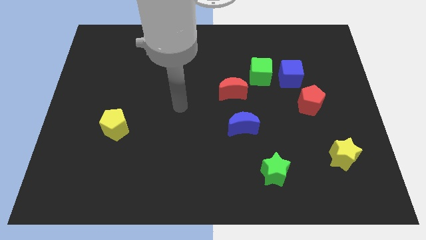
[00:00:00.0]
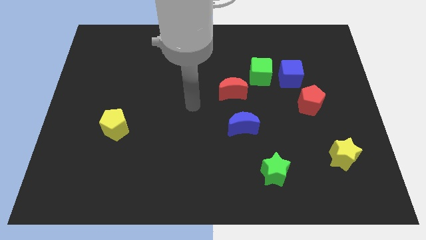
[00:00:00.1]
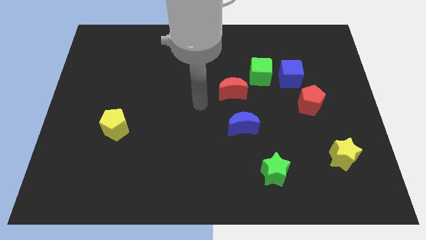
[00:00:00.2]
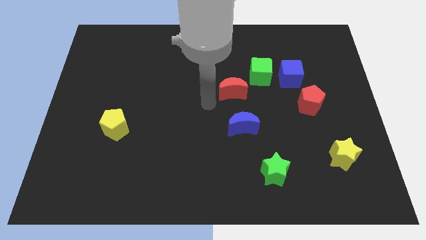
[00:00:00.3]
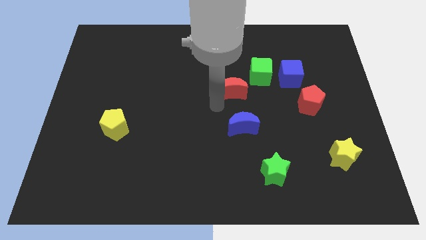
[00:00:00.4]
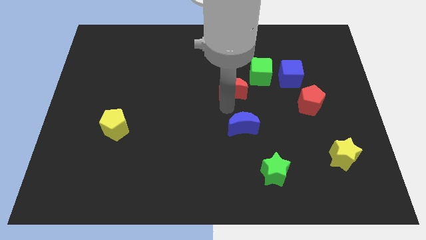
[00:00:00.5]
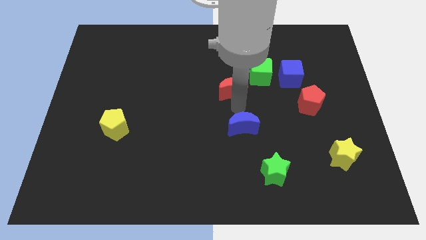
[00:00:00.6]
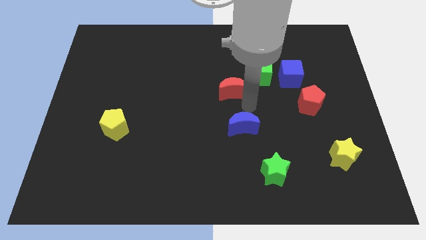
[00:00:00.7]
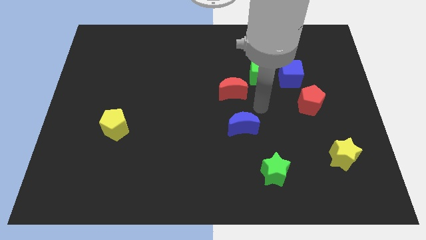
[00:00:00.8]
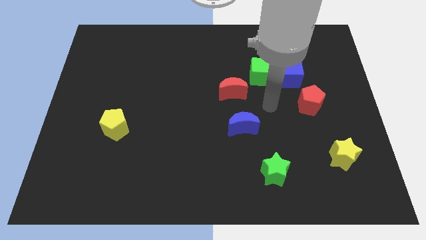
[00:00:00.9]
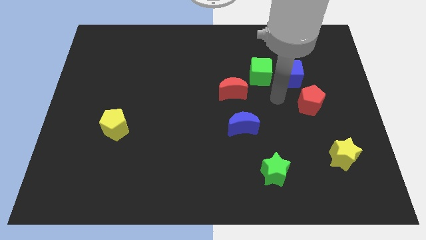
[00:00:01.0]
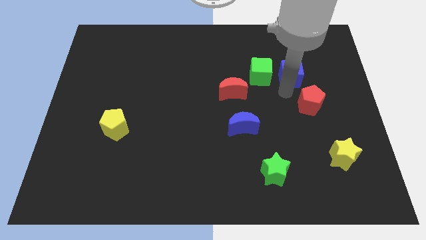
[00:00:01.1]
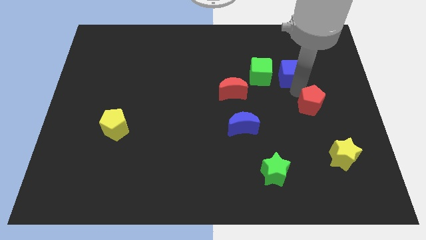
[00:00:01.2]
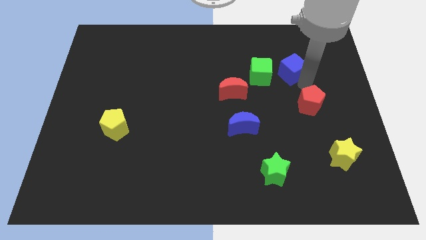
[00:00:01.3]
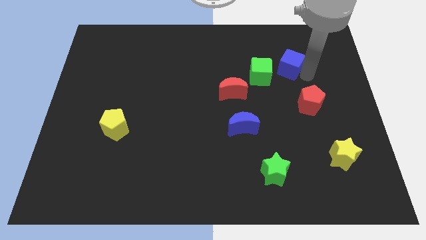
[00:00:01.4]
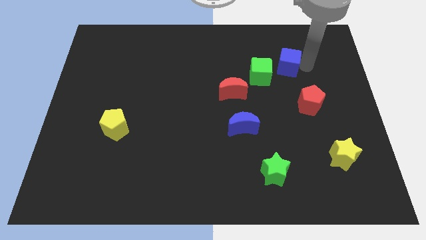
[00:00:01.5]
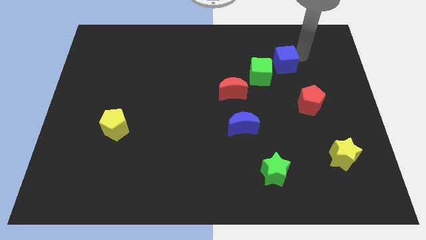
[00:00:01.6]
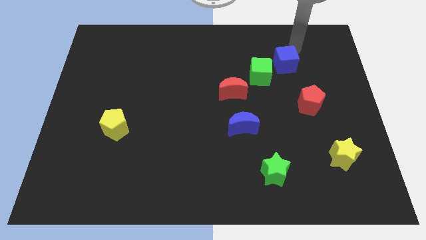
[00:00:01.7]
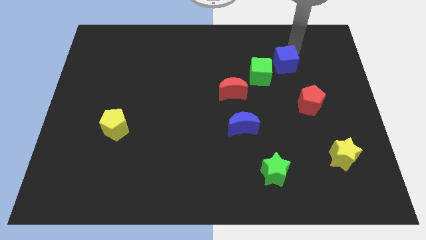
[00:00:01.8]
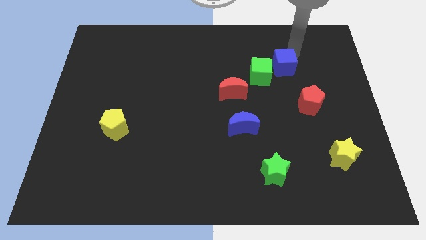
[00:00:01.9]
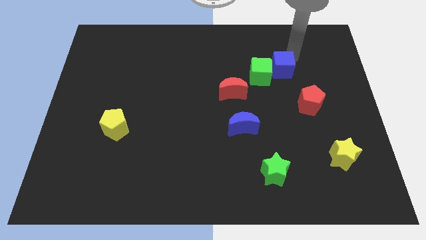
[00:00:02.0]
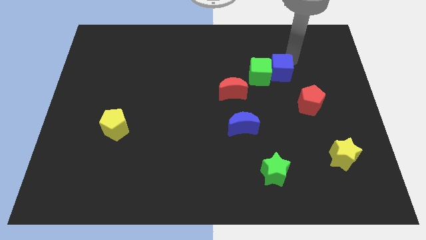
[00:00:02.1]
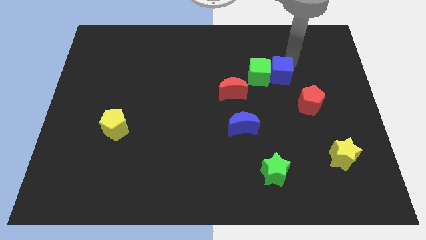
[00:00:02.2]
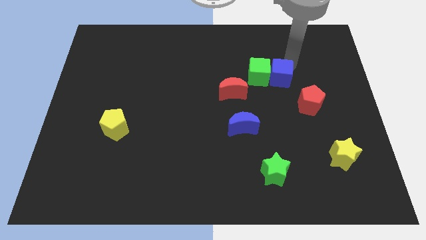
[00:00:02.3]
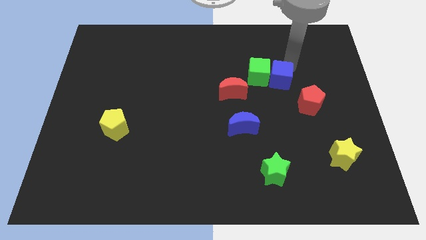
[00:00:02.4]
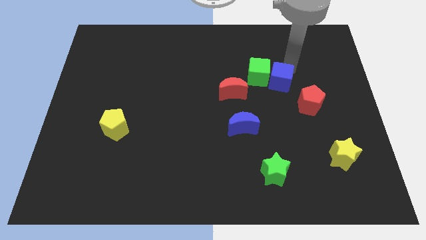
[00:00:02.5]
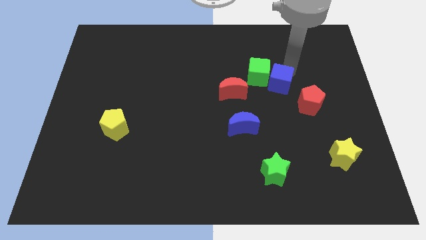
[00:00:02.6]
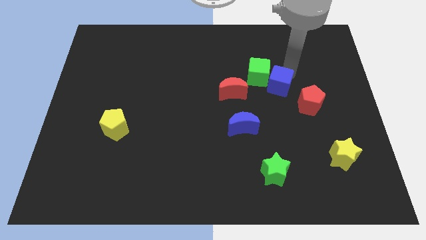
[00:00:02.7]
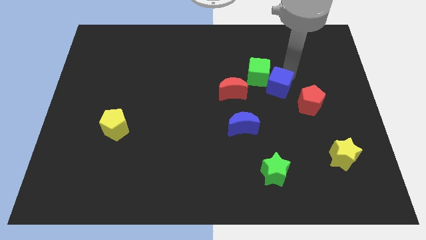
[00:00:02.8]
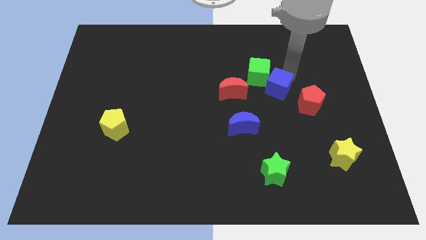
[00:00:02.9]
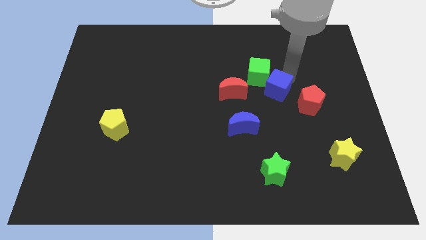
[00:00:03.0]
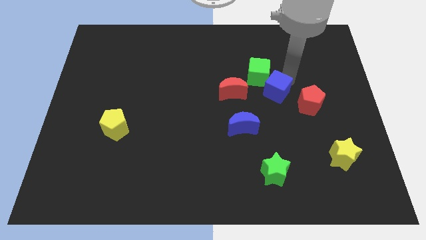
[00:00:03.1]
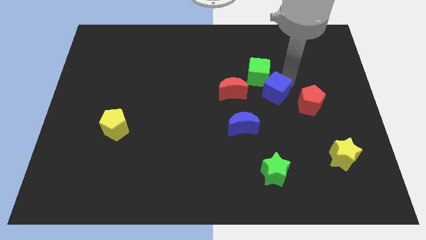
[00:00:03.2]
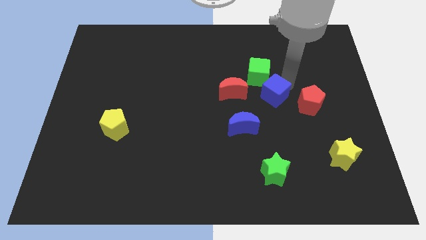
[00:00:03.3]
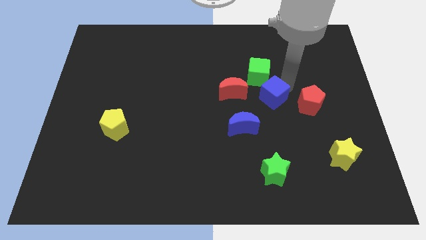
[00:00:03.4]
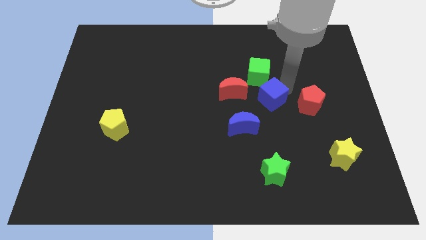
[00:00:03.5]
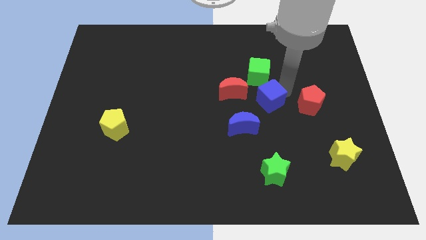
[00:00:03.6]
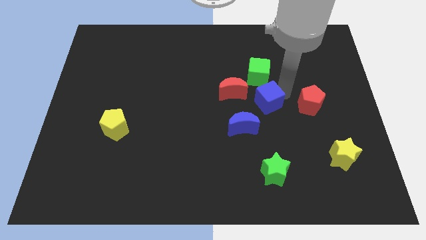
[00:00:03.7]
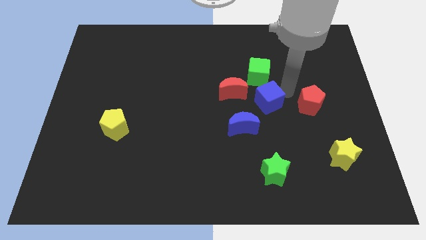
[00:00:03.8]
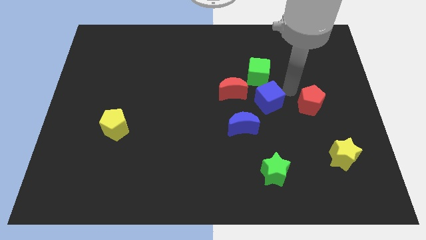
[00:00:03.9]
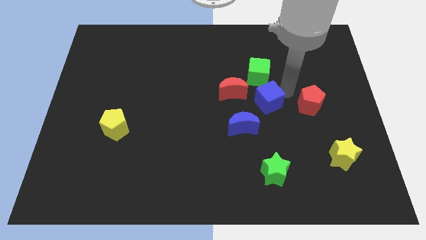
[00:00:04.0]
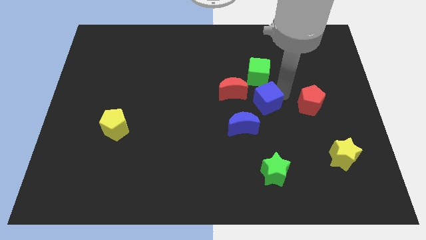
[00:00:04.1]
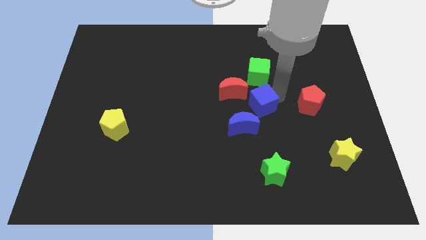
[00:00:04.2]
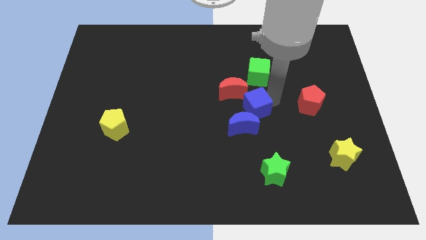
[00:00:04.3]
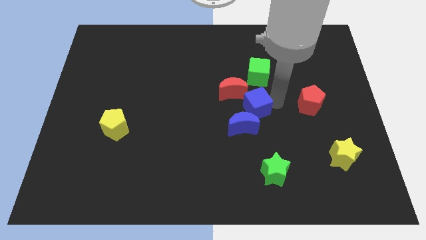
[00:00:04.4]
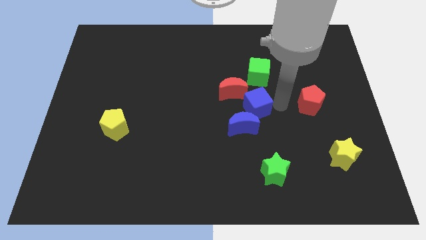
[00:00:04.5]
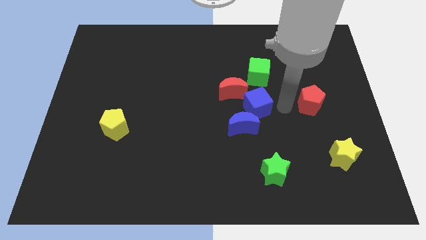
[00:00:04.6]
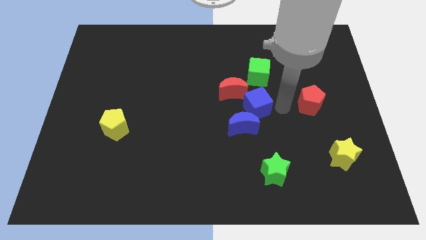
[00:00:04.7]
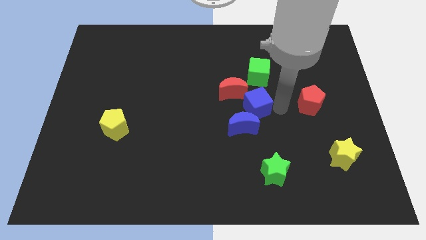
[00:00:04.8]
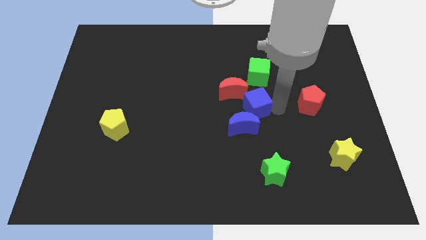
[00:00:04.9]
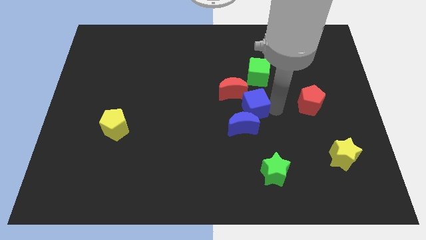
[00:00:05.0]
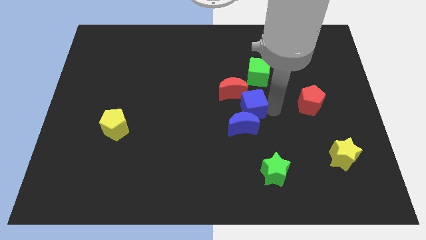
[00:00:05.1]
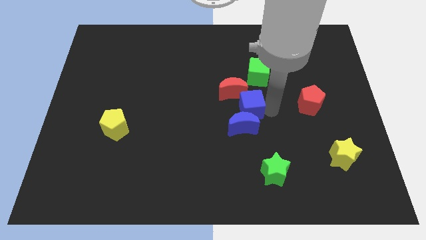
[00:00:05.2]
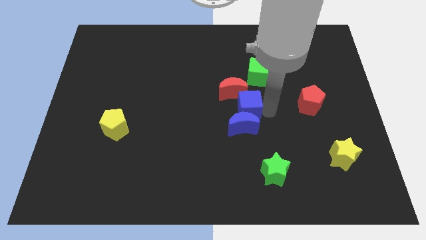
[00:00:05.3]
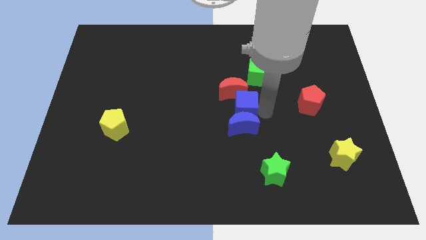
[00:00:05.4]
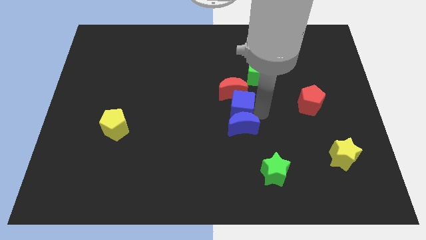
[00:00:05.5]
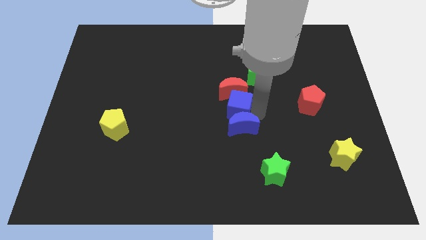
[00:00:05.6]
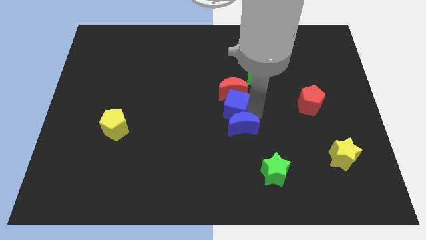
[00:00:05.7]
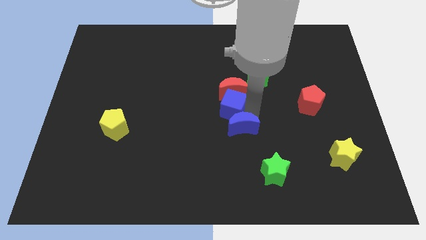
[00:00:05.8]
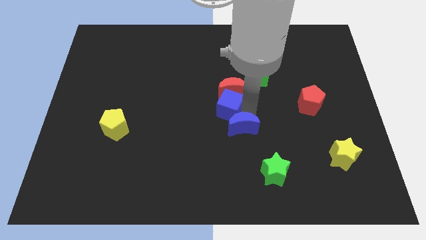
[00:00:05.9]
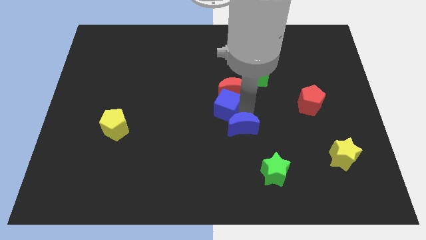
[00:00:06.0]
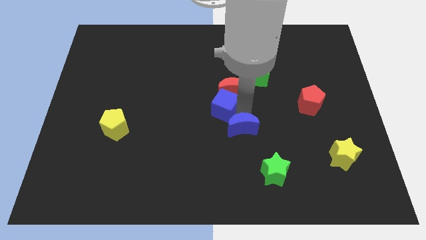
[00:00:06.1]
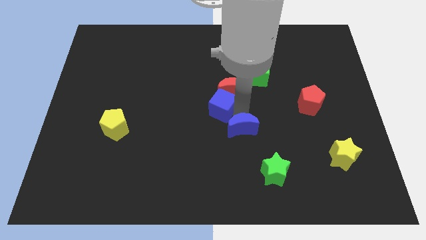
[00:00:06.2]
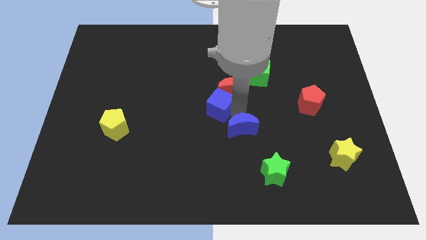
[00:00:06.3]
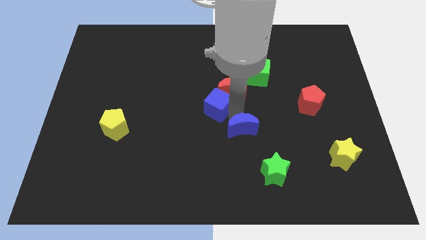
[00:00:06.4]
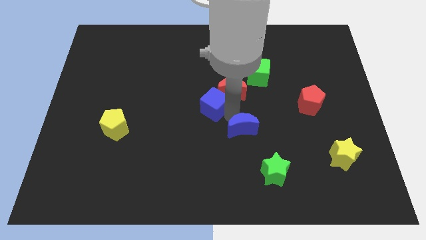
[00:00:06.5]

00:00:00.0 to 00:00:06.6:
put the blue cube to the left side of the red moon

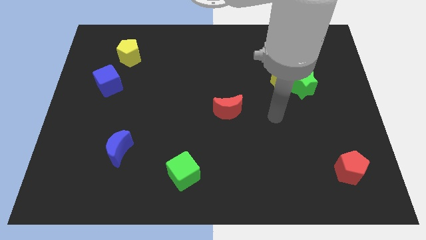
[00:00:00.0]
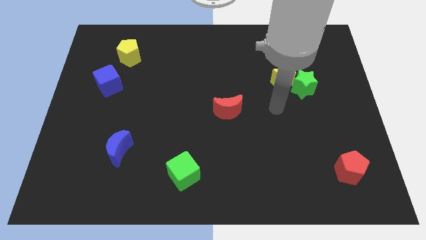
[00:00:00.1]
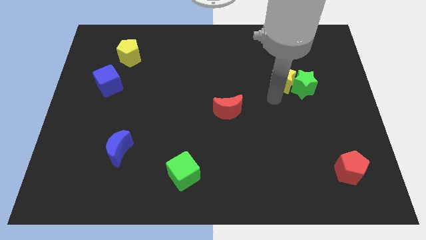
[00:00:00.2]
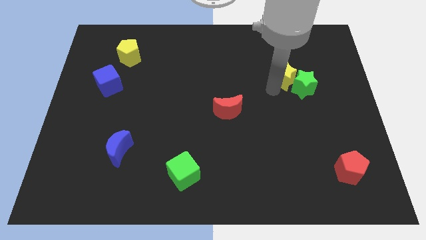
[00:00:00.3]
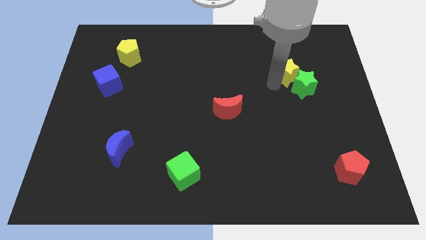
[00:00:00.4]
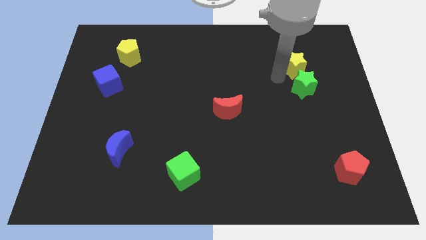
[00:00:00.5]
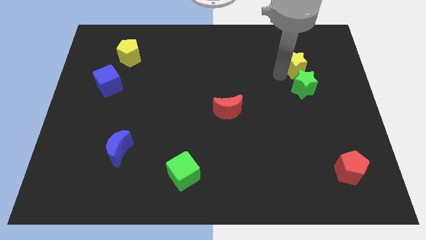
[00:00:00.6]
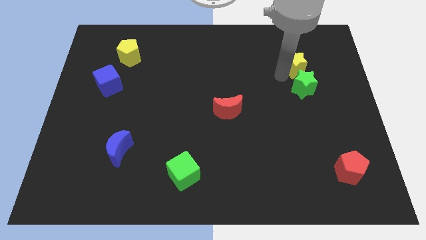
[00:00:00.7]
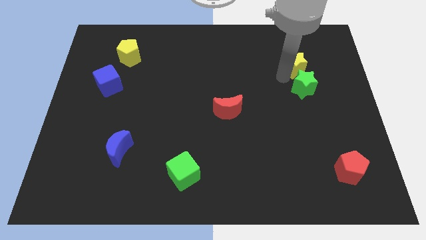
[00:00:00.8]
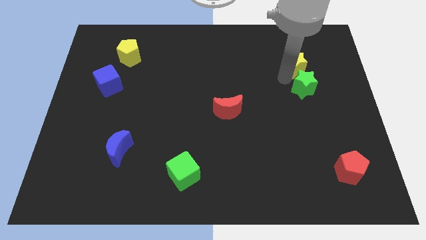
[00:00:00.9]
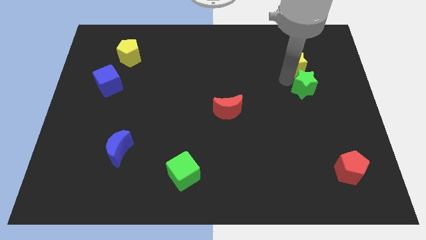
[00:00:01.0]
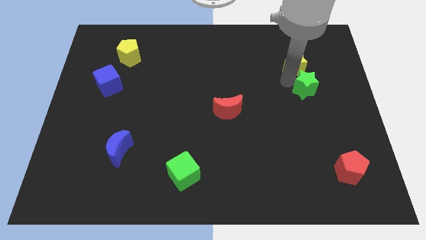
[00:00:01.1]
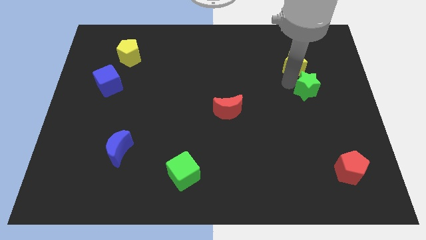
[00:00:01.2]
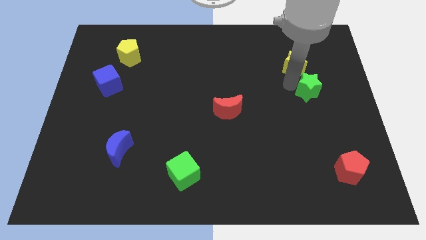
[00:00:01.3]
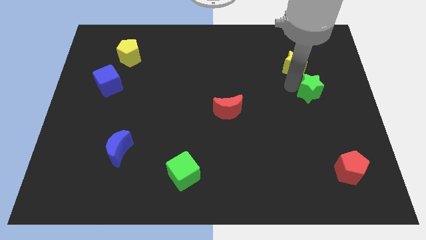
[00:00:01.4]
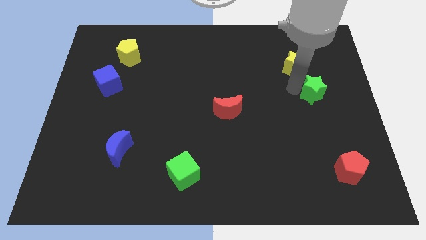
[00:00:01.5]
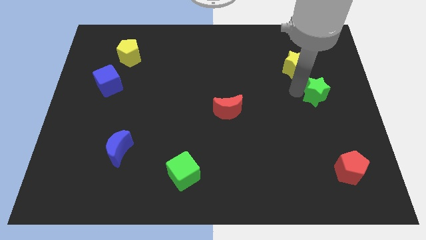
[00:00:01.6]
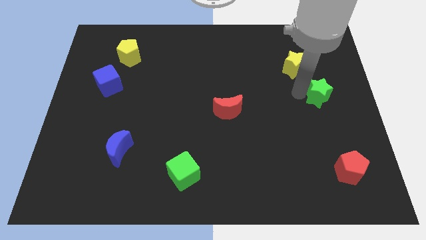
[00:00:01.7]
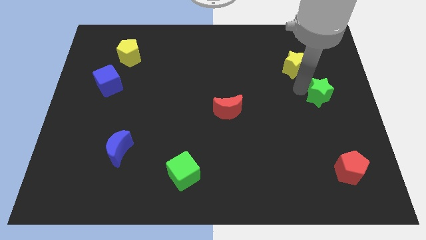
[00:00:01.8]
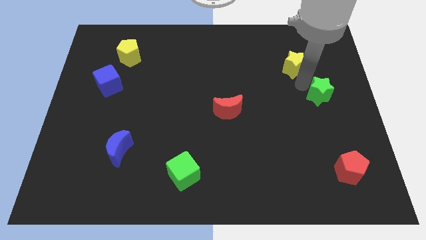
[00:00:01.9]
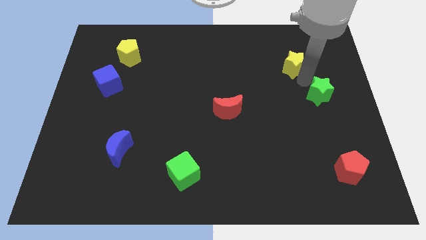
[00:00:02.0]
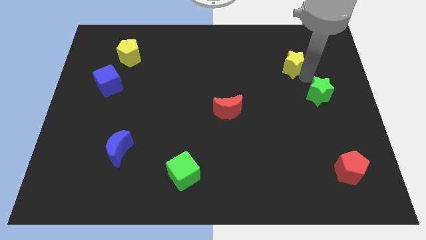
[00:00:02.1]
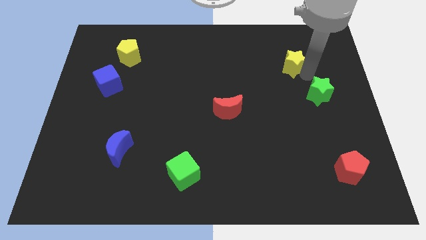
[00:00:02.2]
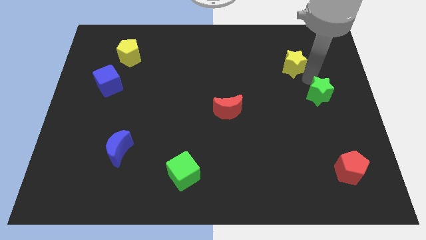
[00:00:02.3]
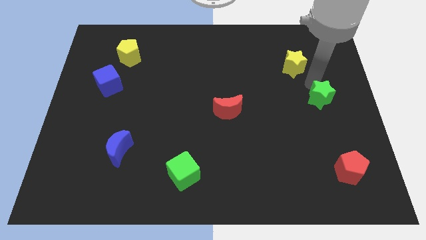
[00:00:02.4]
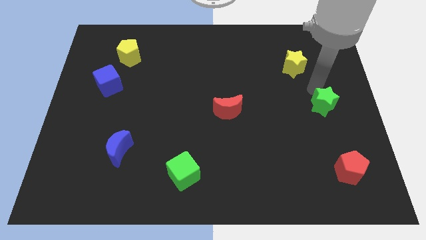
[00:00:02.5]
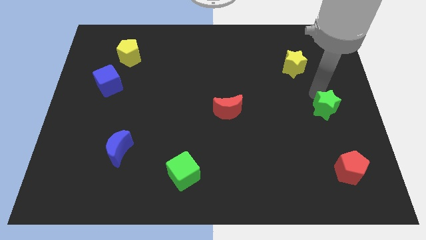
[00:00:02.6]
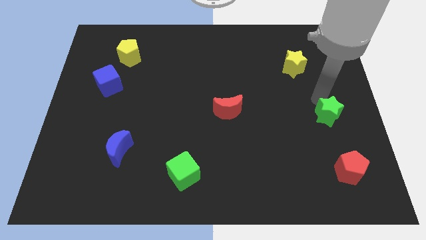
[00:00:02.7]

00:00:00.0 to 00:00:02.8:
move the green star to the top of the red pentagon
